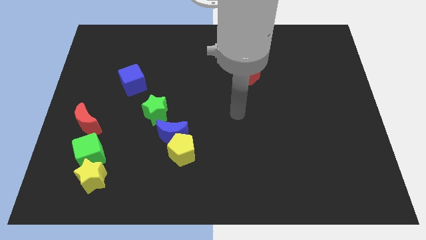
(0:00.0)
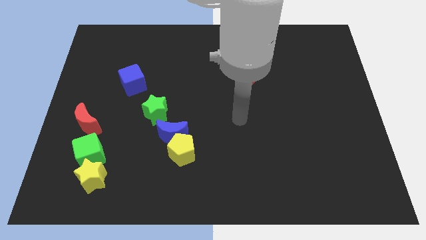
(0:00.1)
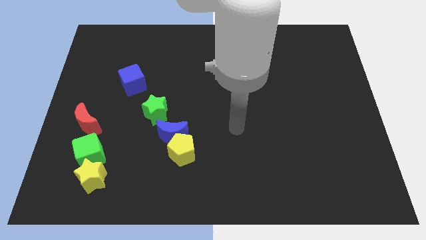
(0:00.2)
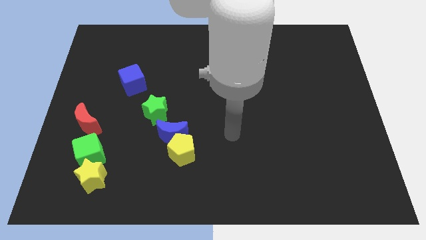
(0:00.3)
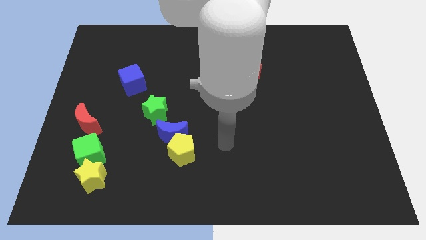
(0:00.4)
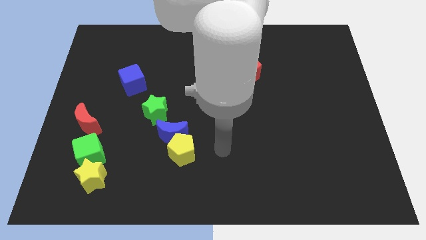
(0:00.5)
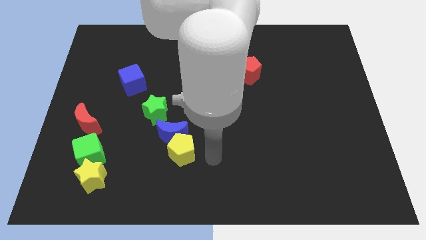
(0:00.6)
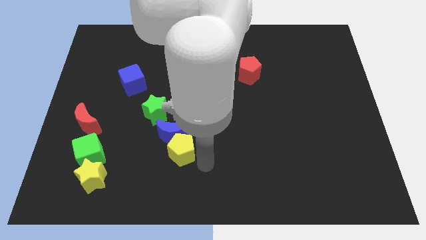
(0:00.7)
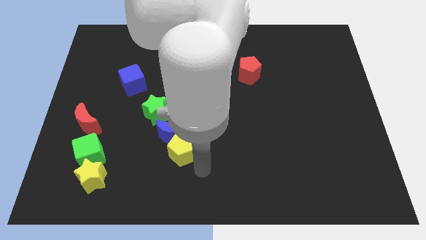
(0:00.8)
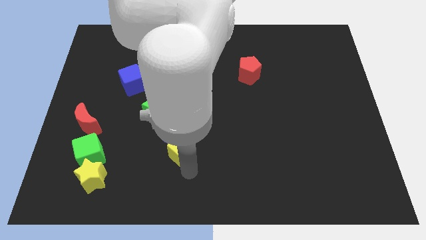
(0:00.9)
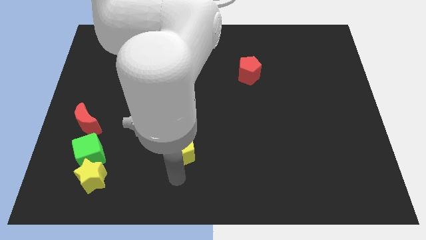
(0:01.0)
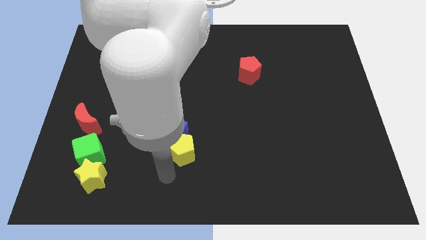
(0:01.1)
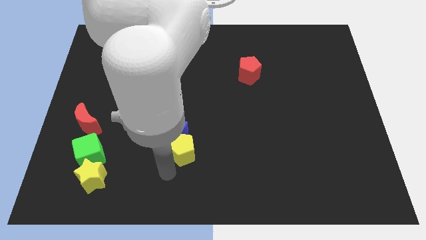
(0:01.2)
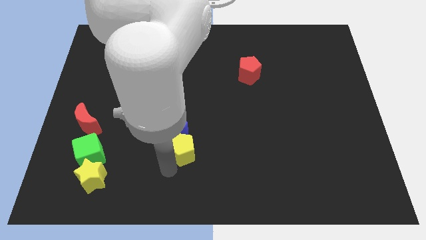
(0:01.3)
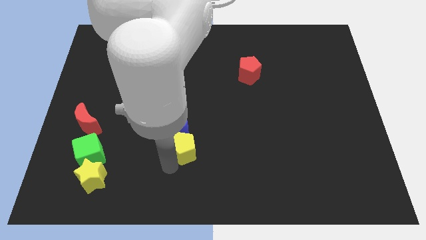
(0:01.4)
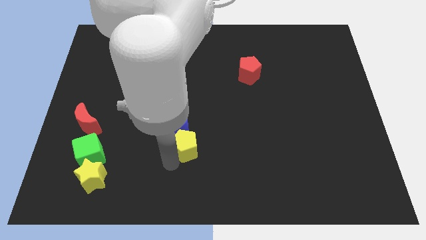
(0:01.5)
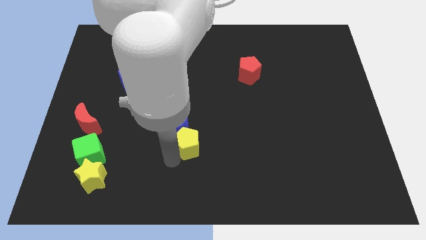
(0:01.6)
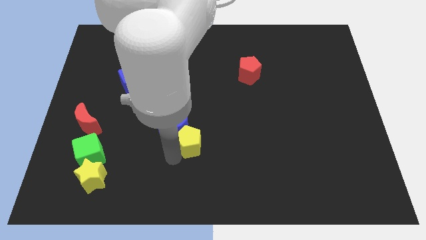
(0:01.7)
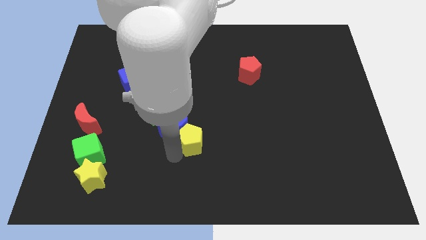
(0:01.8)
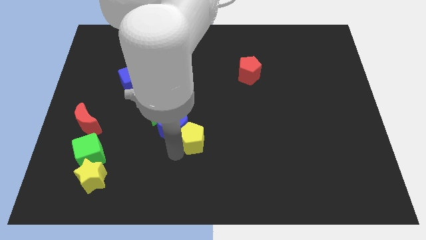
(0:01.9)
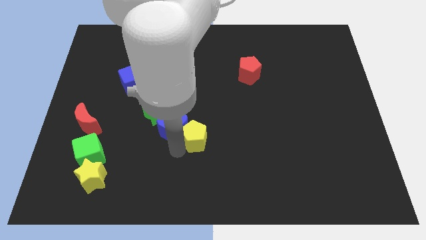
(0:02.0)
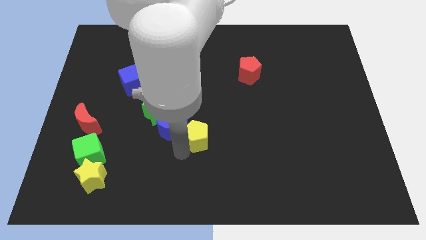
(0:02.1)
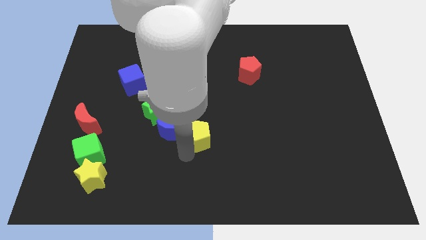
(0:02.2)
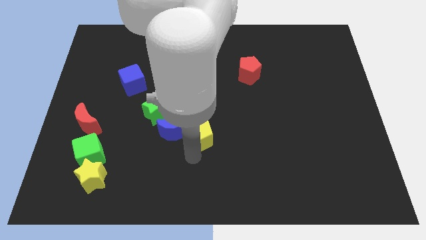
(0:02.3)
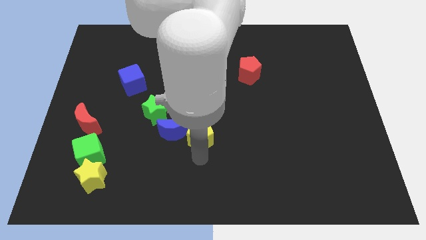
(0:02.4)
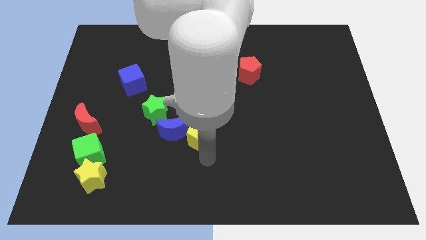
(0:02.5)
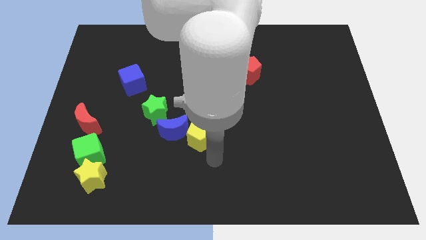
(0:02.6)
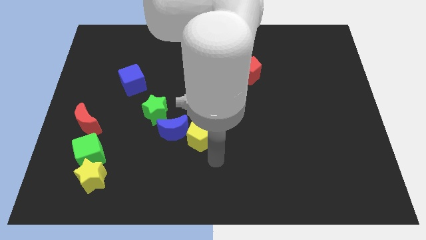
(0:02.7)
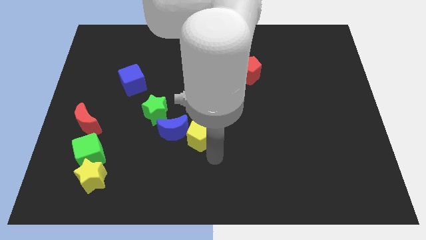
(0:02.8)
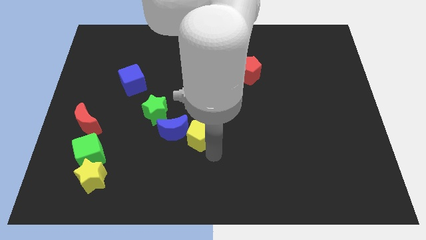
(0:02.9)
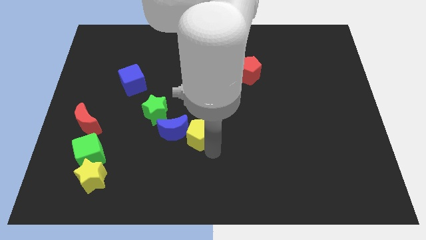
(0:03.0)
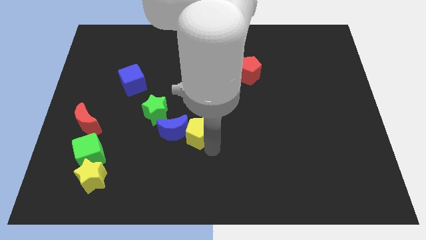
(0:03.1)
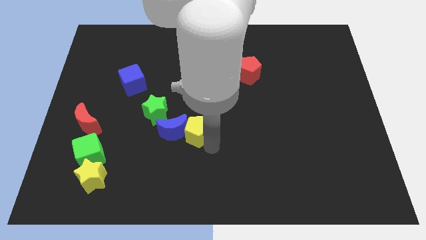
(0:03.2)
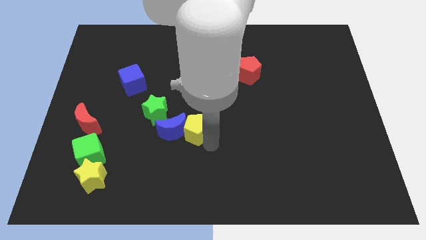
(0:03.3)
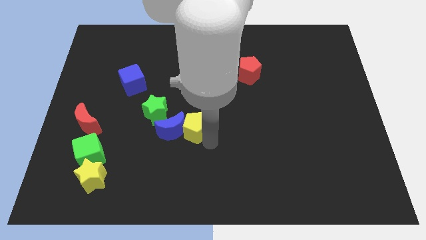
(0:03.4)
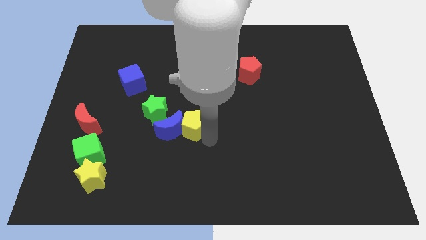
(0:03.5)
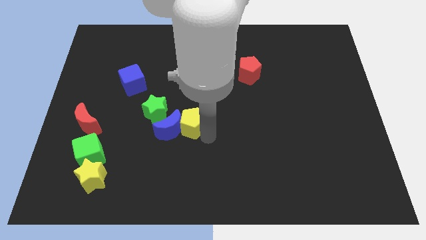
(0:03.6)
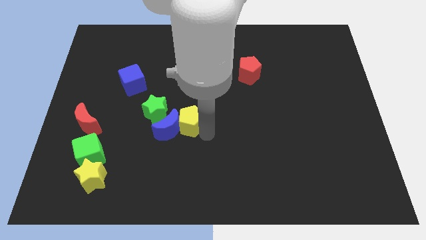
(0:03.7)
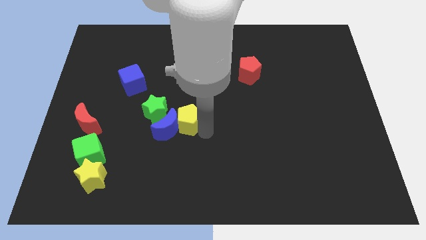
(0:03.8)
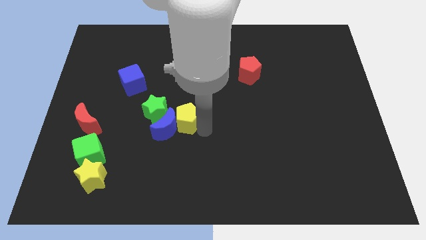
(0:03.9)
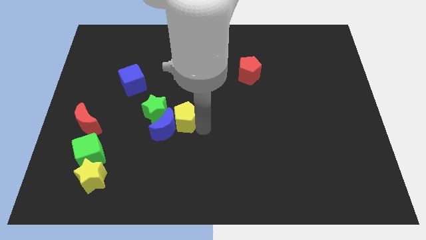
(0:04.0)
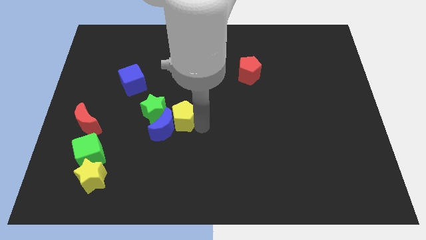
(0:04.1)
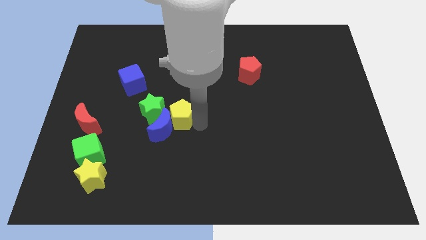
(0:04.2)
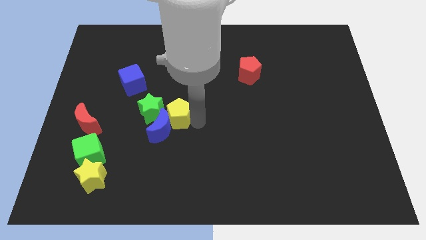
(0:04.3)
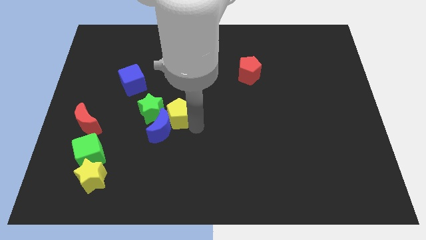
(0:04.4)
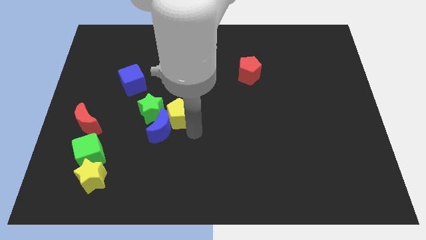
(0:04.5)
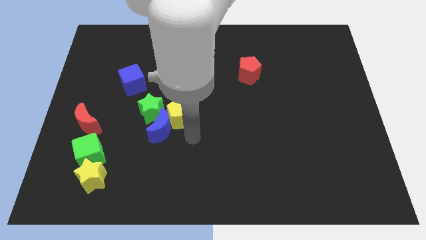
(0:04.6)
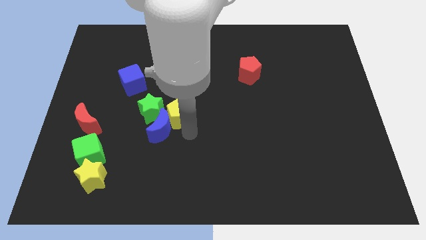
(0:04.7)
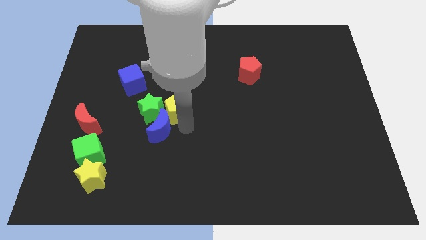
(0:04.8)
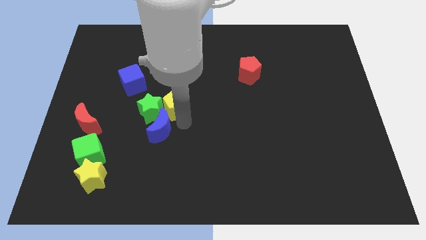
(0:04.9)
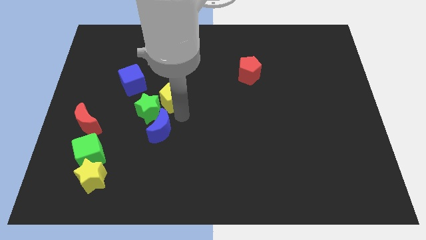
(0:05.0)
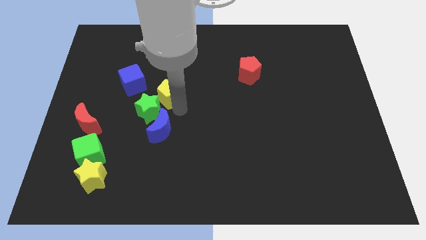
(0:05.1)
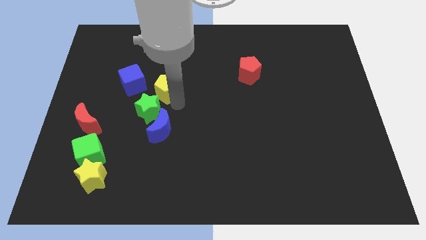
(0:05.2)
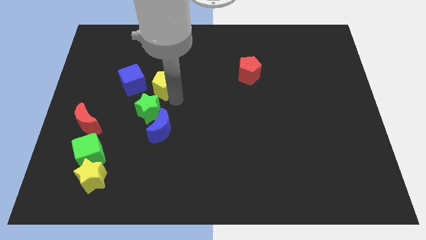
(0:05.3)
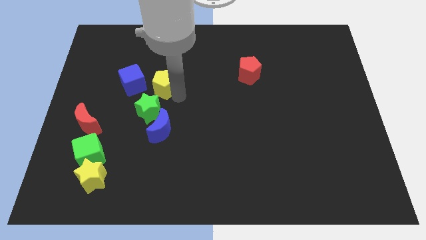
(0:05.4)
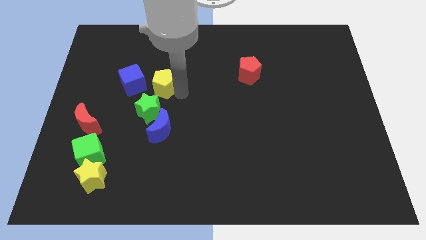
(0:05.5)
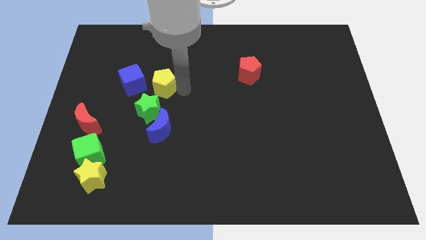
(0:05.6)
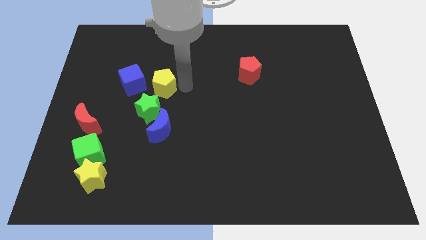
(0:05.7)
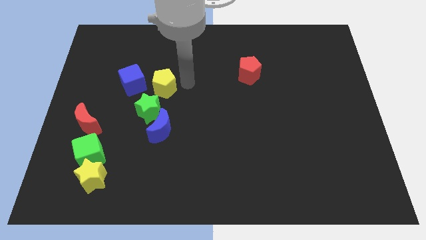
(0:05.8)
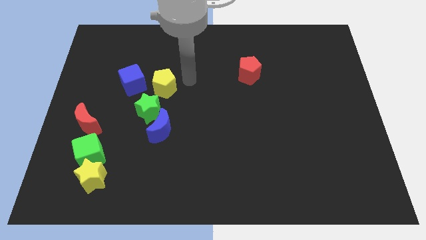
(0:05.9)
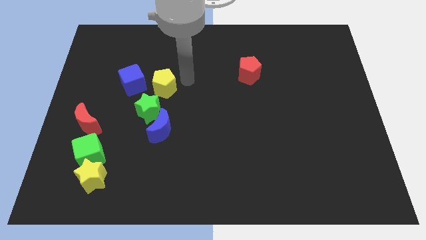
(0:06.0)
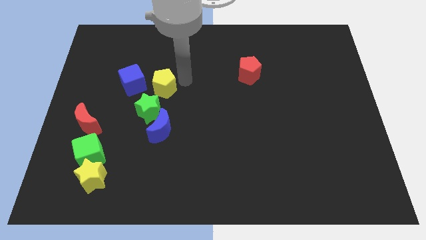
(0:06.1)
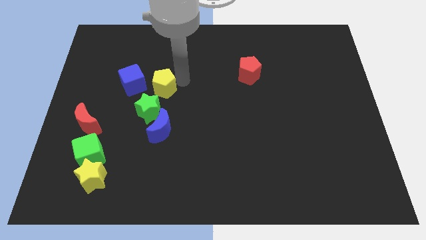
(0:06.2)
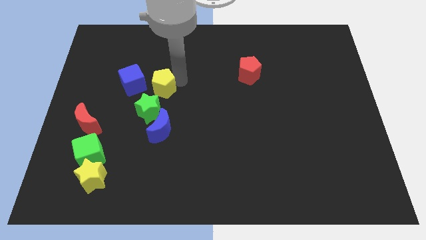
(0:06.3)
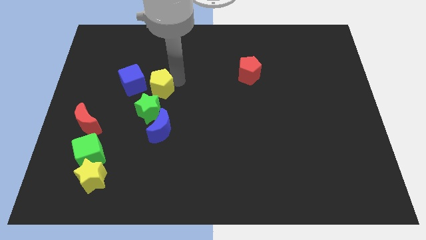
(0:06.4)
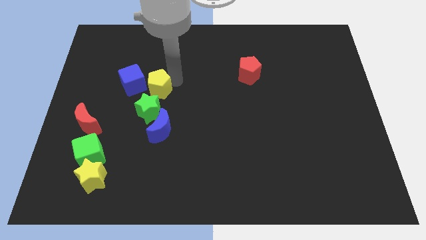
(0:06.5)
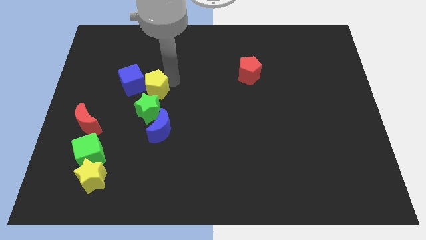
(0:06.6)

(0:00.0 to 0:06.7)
put the yellow pentagon towards the blue cube
